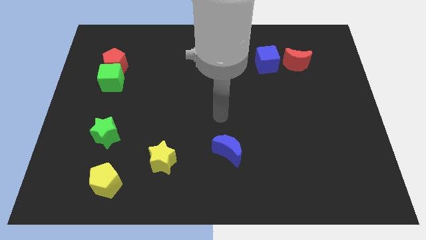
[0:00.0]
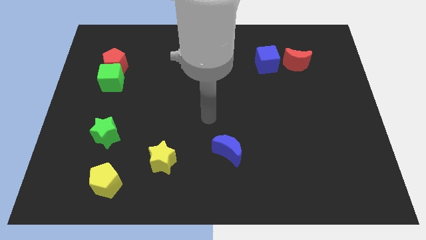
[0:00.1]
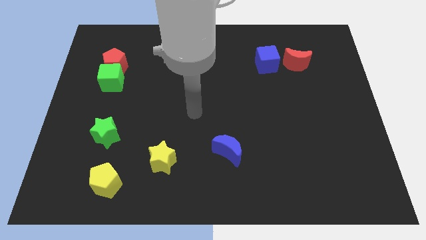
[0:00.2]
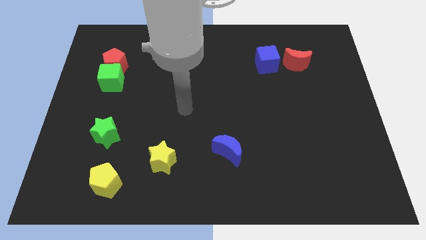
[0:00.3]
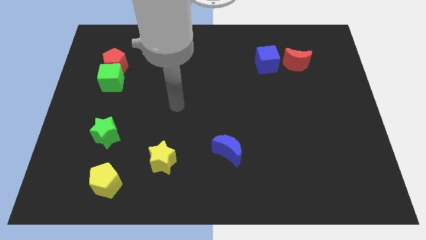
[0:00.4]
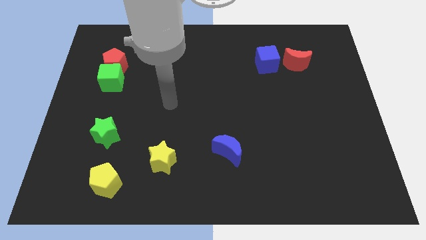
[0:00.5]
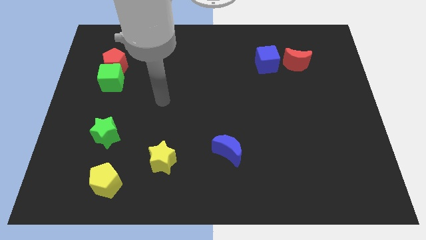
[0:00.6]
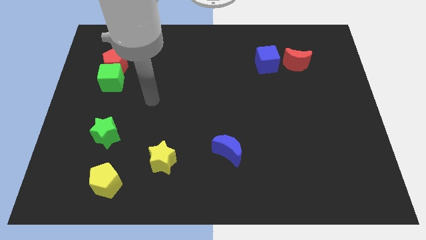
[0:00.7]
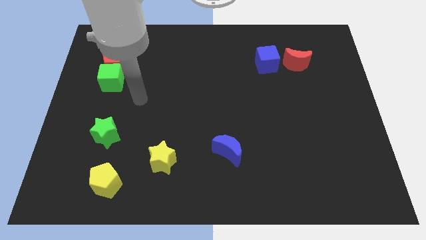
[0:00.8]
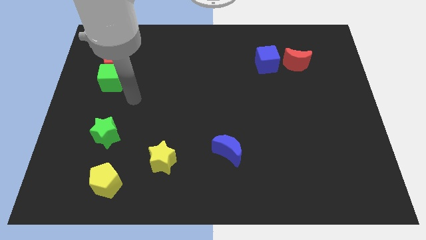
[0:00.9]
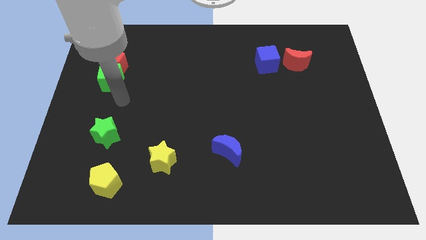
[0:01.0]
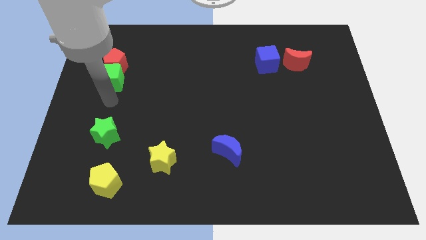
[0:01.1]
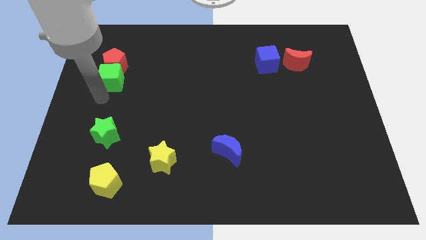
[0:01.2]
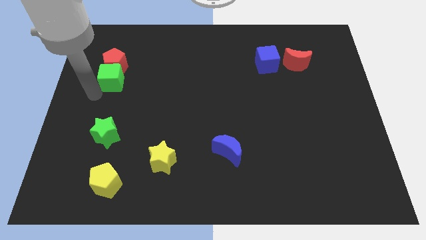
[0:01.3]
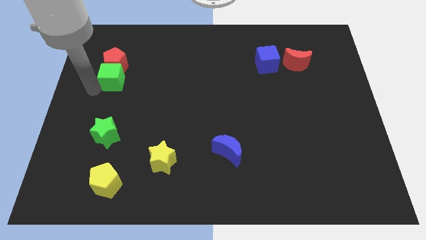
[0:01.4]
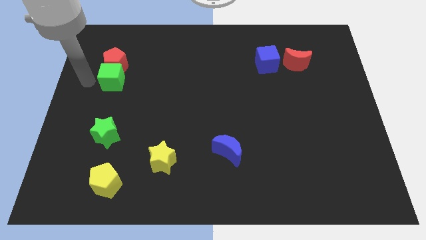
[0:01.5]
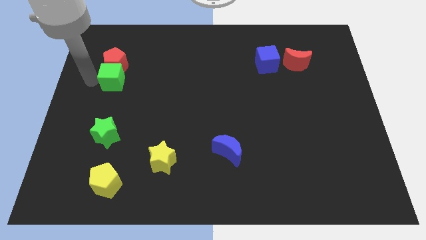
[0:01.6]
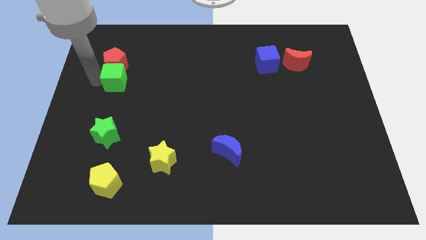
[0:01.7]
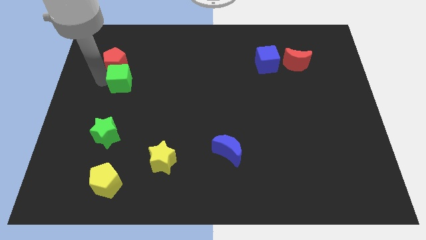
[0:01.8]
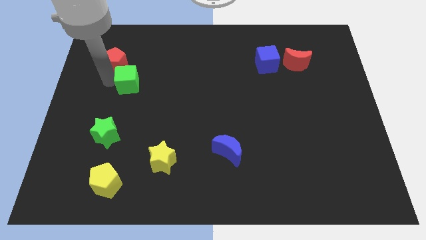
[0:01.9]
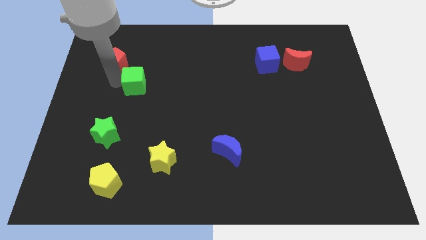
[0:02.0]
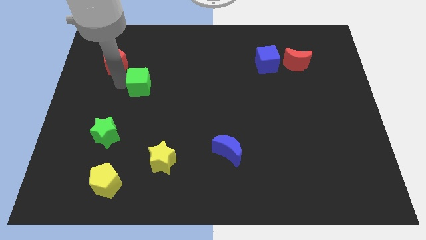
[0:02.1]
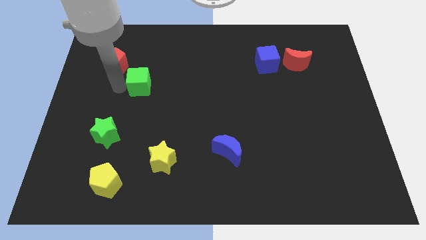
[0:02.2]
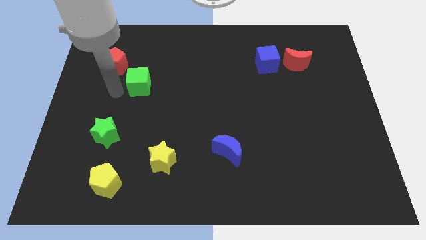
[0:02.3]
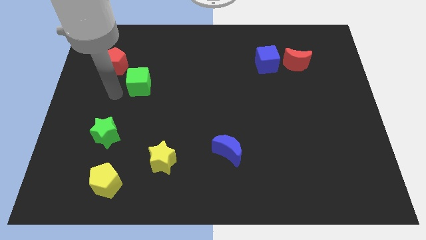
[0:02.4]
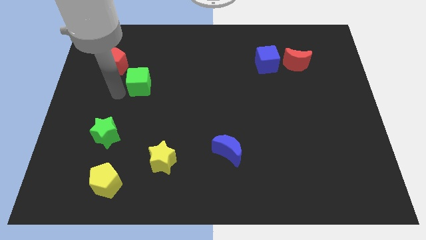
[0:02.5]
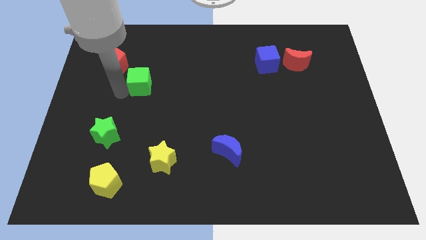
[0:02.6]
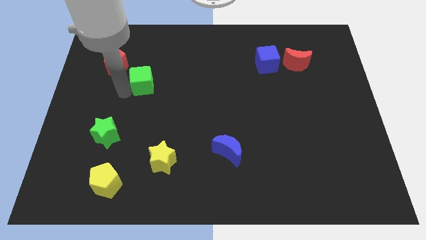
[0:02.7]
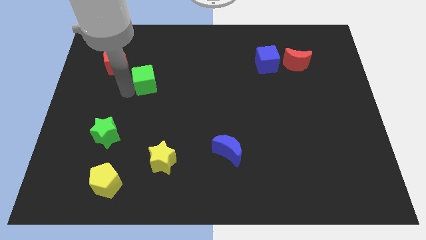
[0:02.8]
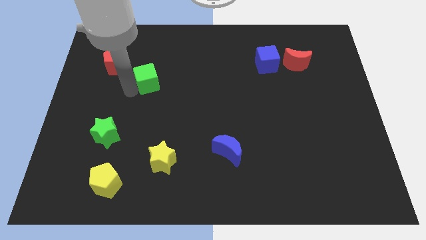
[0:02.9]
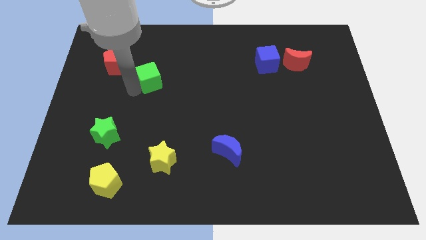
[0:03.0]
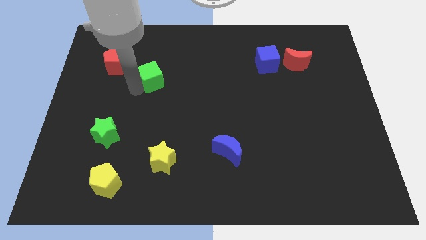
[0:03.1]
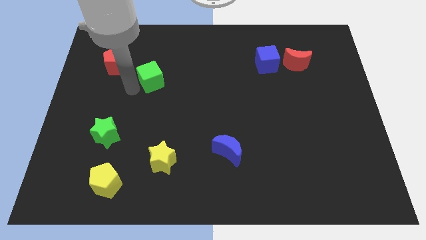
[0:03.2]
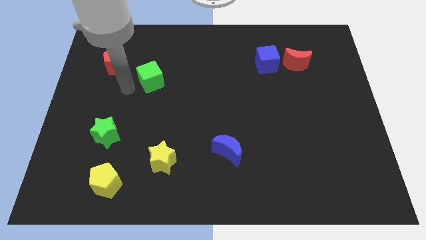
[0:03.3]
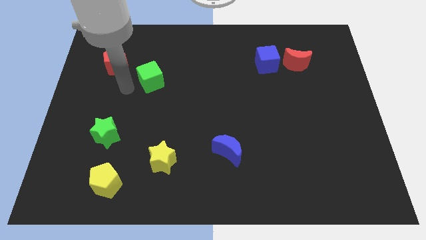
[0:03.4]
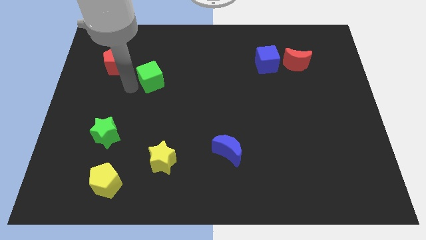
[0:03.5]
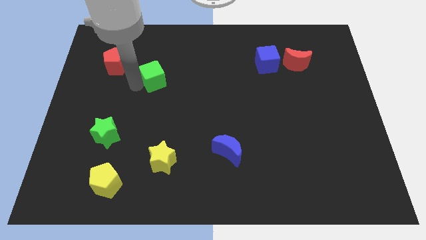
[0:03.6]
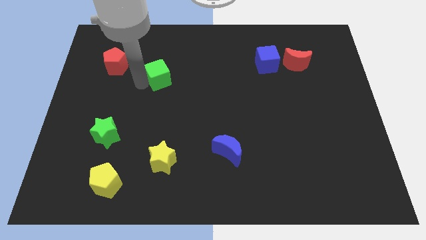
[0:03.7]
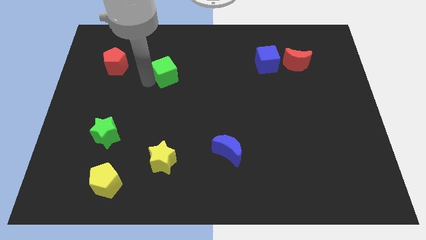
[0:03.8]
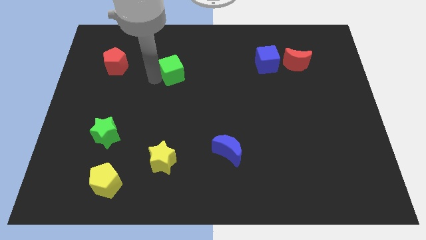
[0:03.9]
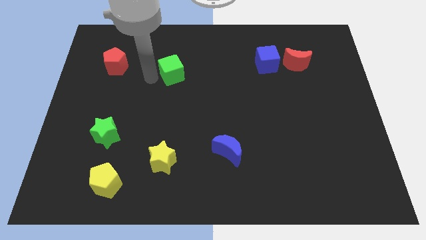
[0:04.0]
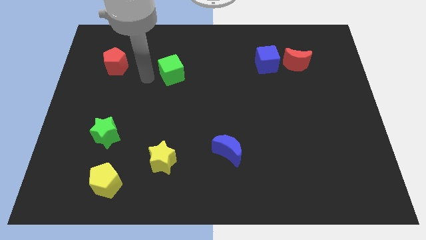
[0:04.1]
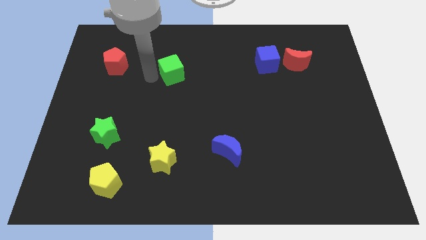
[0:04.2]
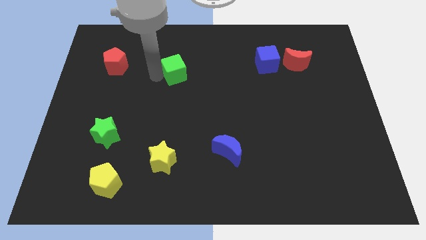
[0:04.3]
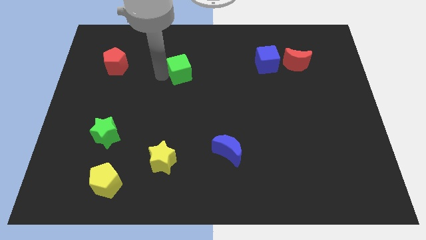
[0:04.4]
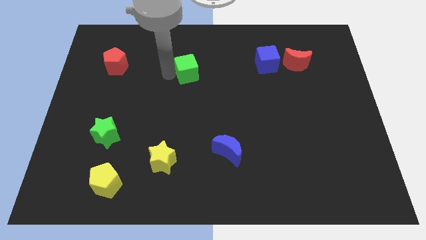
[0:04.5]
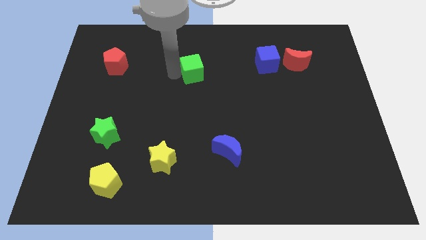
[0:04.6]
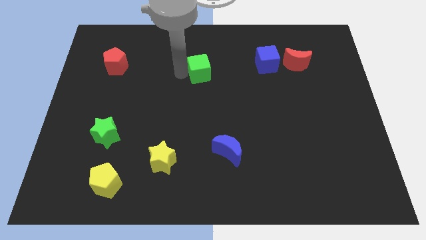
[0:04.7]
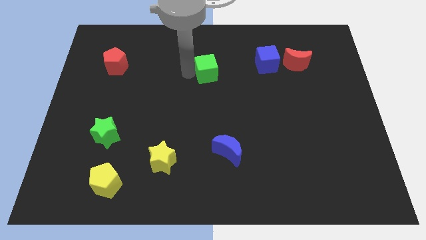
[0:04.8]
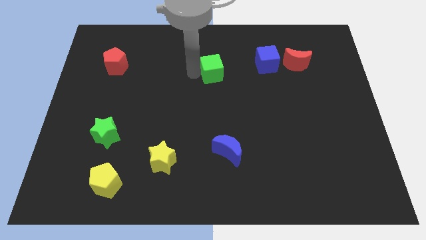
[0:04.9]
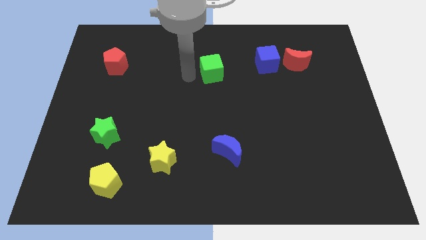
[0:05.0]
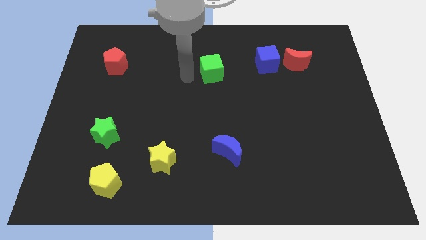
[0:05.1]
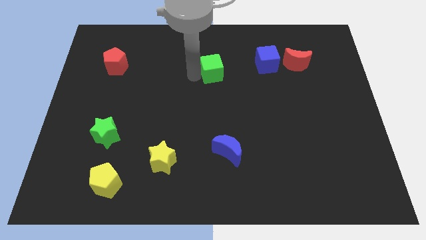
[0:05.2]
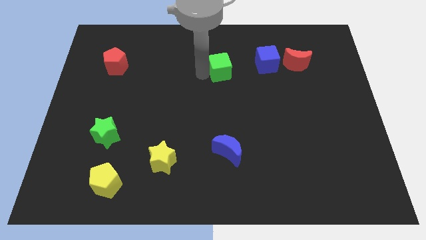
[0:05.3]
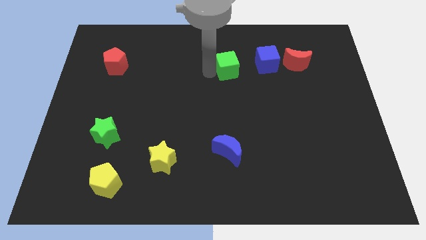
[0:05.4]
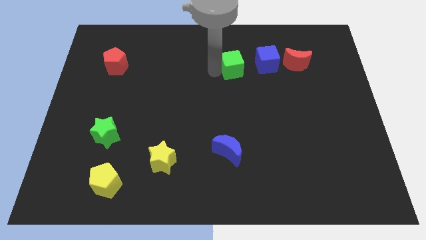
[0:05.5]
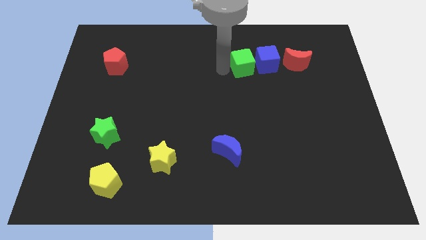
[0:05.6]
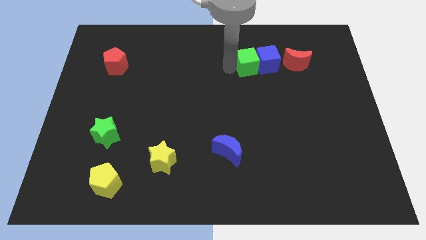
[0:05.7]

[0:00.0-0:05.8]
slide the green cube close to the blue cube

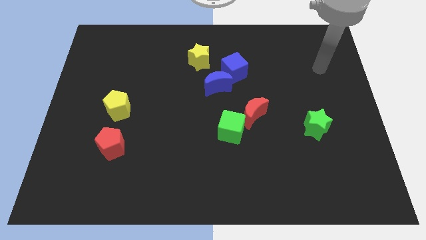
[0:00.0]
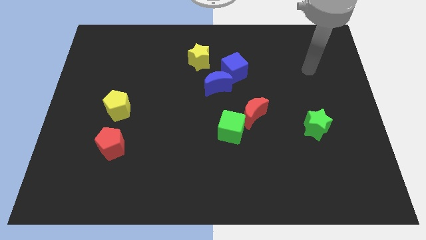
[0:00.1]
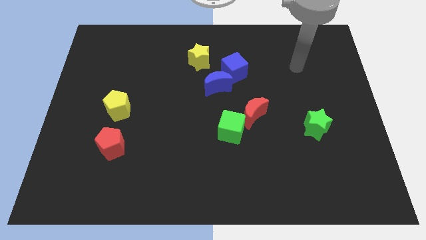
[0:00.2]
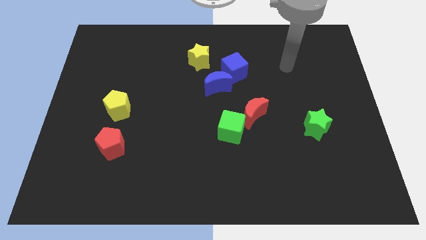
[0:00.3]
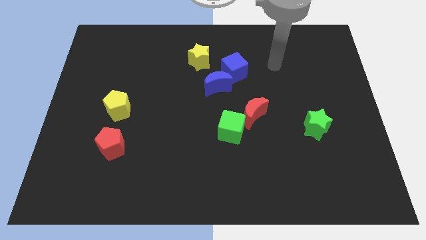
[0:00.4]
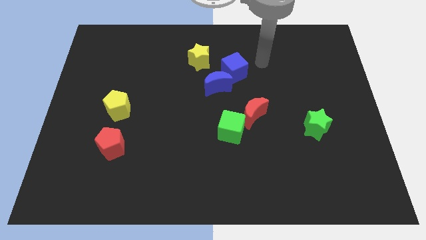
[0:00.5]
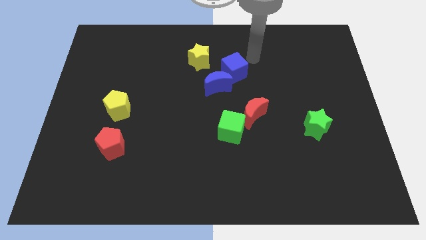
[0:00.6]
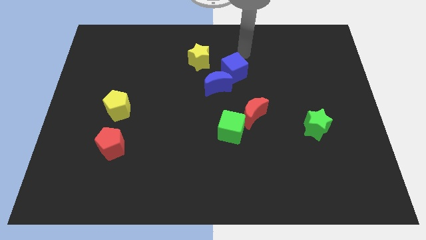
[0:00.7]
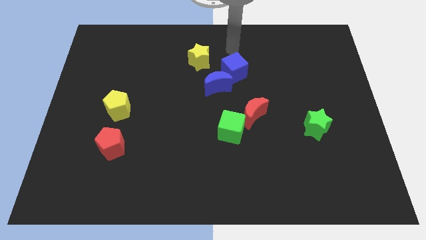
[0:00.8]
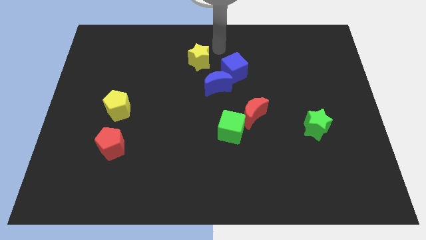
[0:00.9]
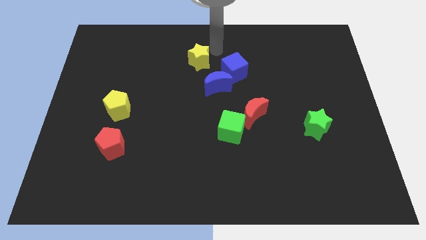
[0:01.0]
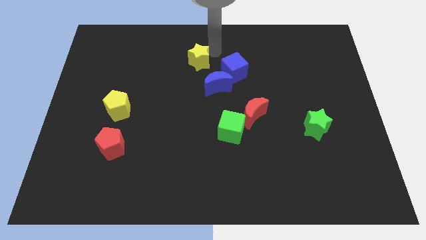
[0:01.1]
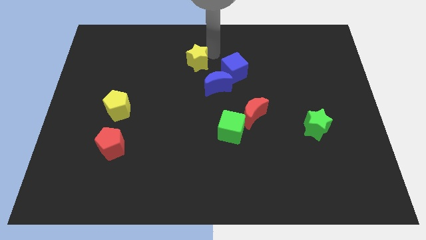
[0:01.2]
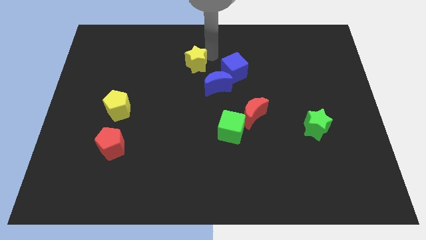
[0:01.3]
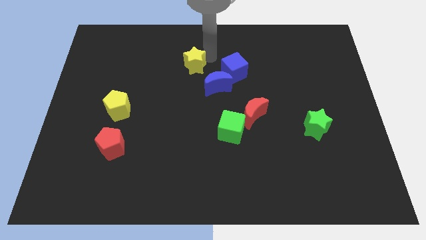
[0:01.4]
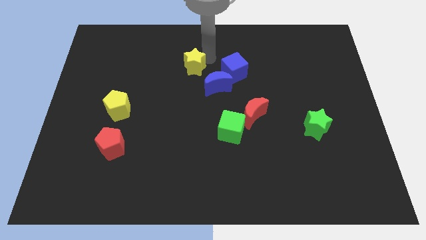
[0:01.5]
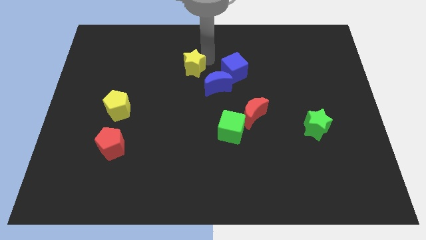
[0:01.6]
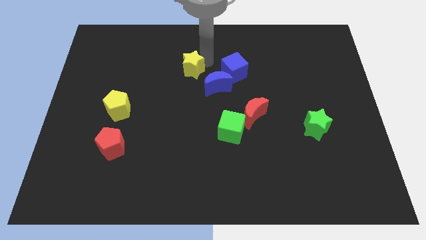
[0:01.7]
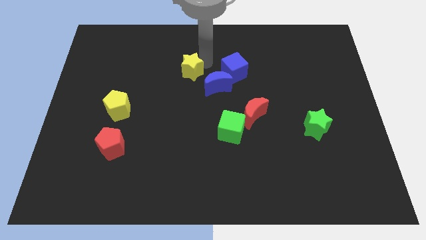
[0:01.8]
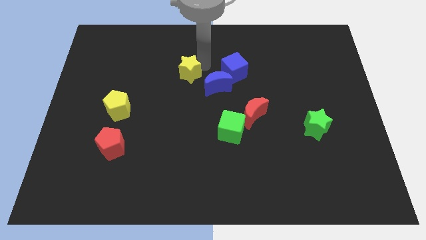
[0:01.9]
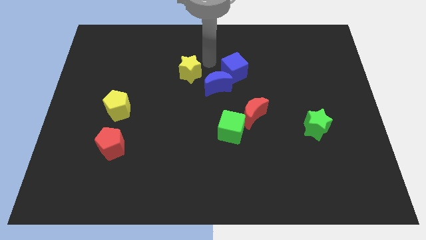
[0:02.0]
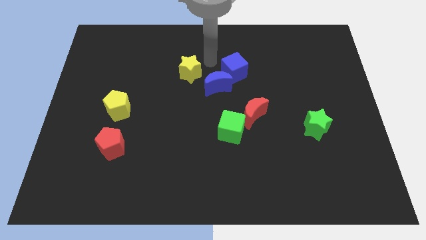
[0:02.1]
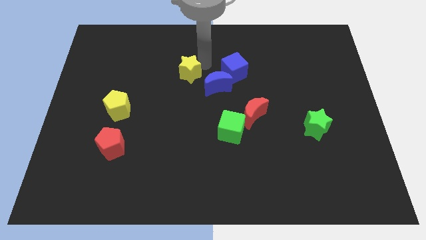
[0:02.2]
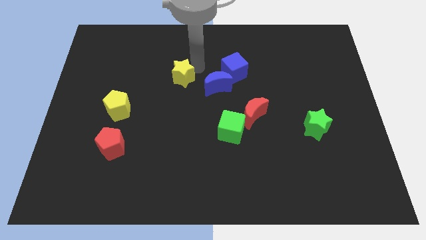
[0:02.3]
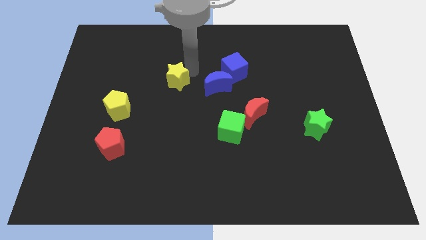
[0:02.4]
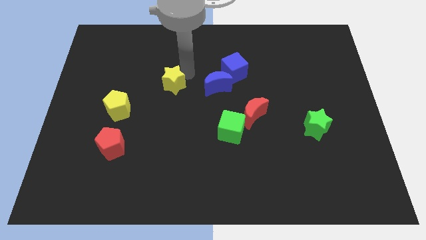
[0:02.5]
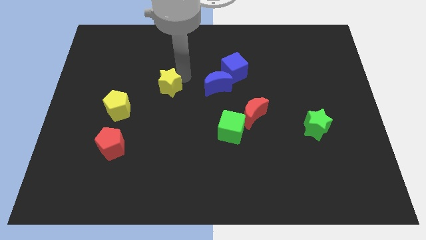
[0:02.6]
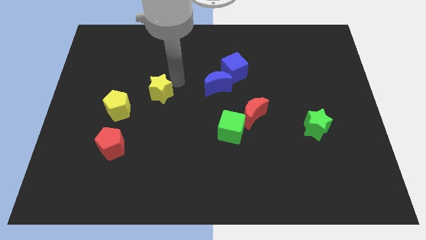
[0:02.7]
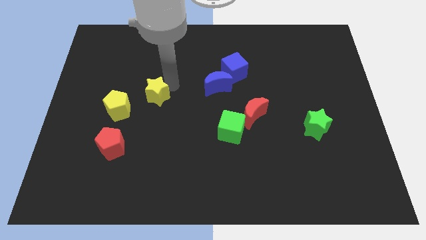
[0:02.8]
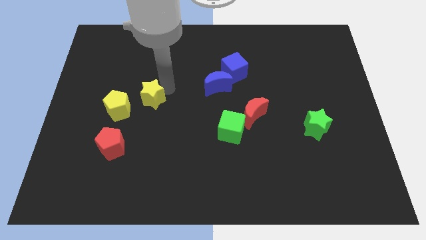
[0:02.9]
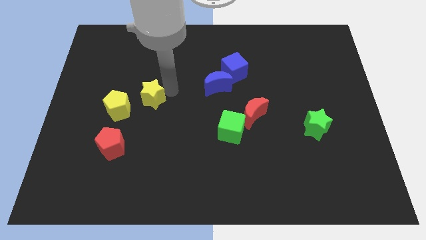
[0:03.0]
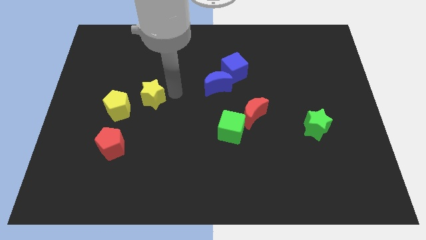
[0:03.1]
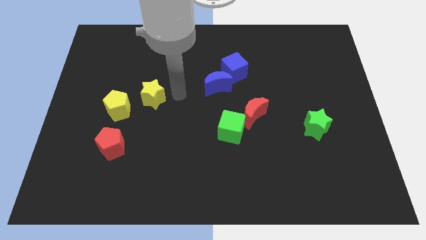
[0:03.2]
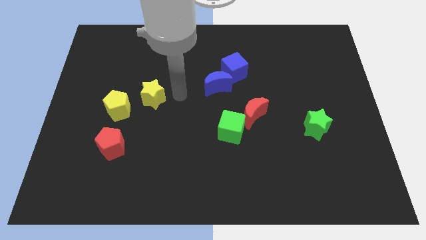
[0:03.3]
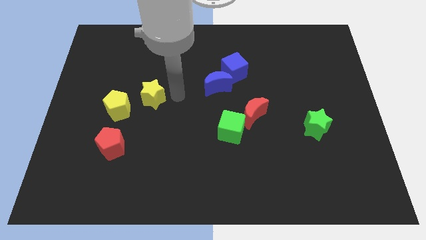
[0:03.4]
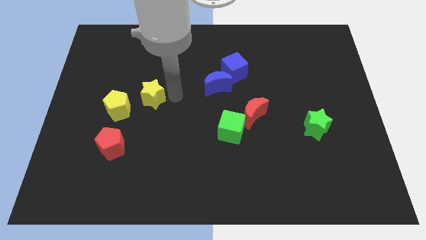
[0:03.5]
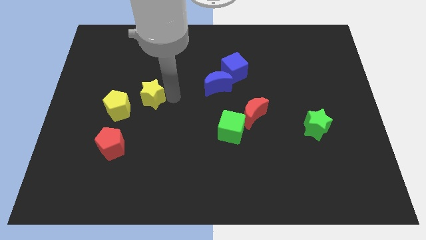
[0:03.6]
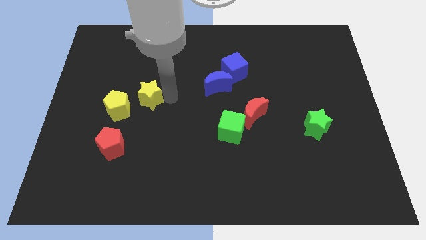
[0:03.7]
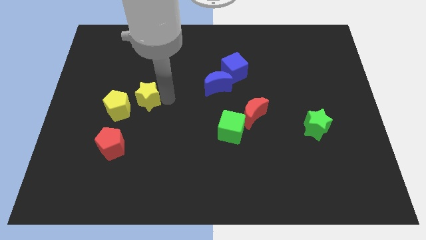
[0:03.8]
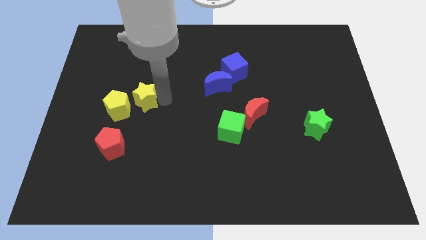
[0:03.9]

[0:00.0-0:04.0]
put the yellow star towards the yellow pentagon
